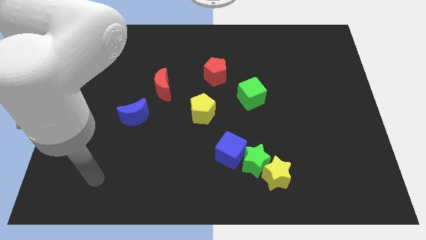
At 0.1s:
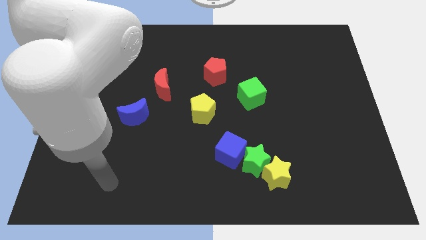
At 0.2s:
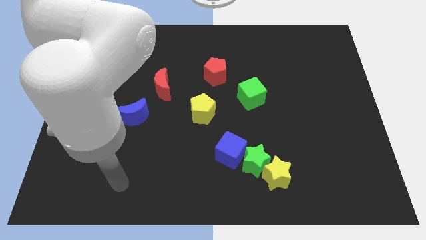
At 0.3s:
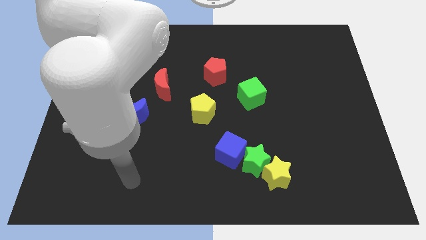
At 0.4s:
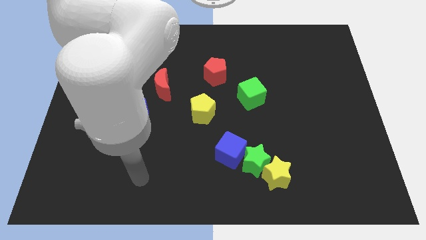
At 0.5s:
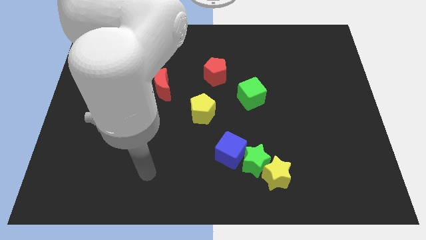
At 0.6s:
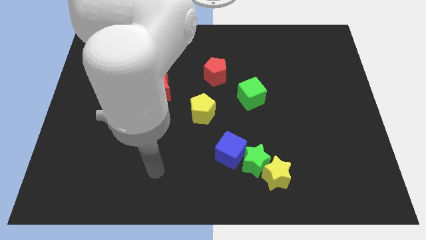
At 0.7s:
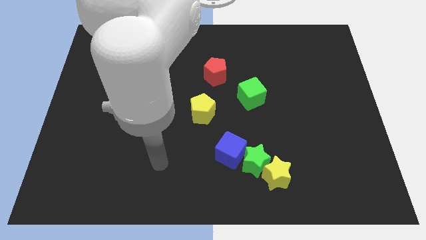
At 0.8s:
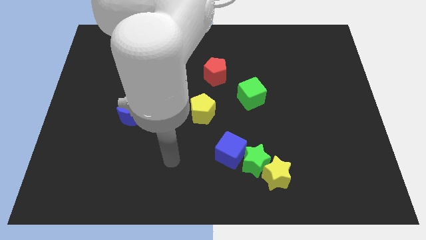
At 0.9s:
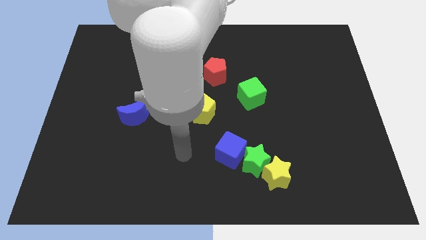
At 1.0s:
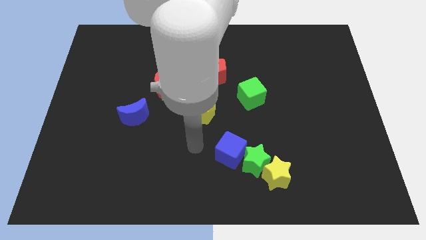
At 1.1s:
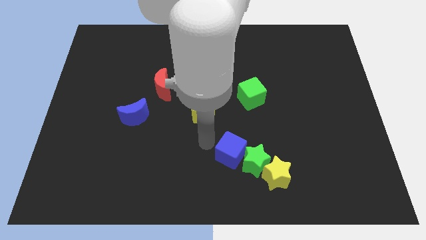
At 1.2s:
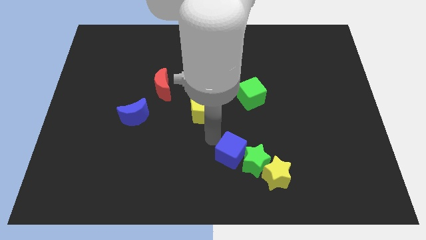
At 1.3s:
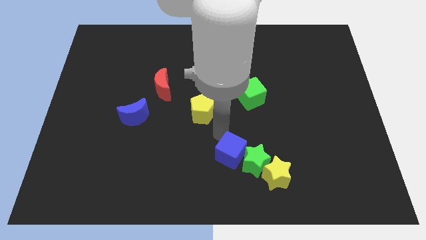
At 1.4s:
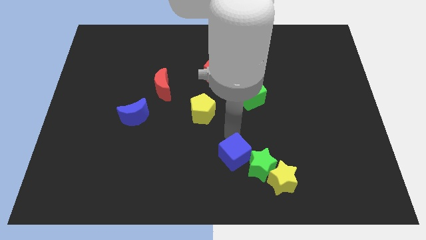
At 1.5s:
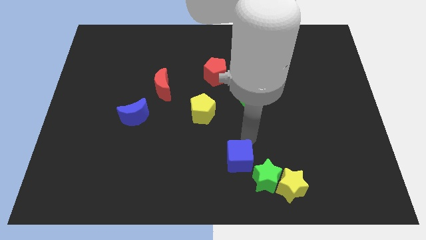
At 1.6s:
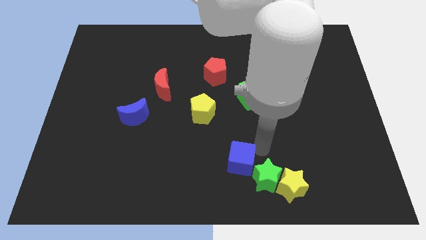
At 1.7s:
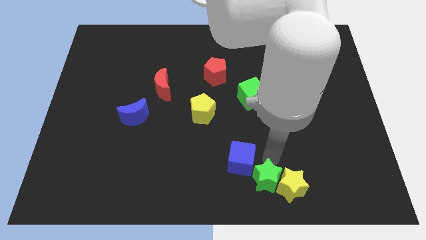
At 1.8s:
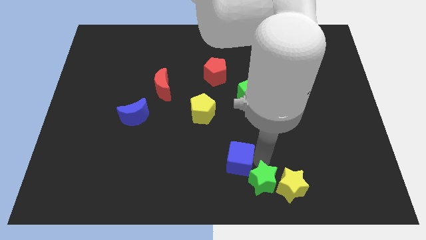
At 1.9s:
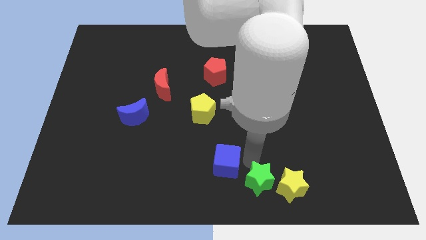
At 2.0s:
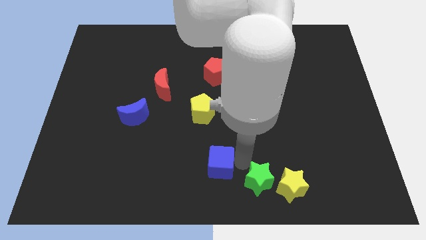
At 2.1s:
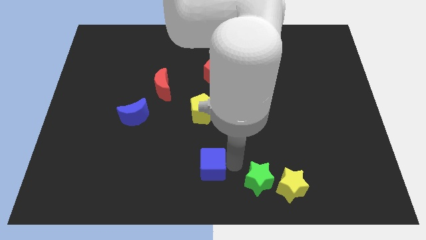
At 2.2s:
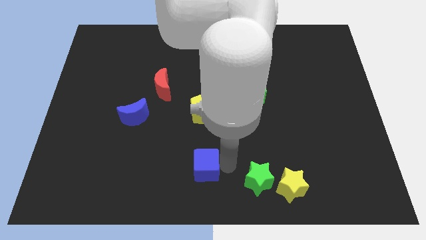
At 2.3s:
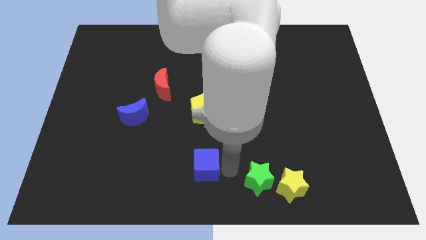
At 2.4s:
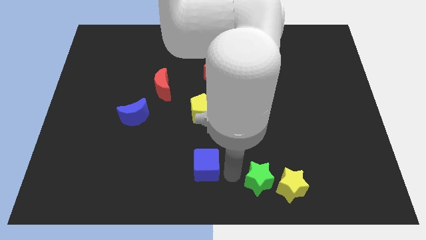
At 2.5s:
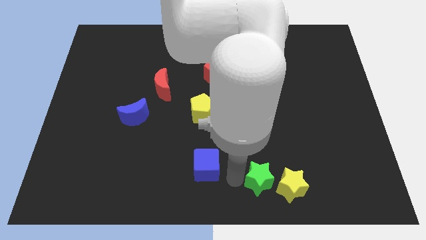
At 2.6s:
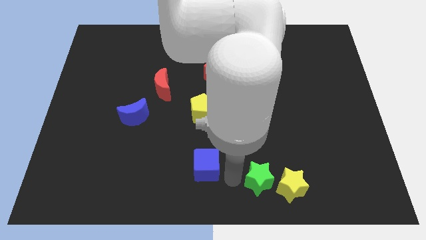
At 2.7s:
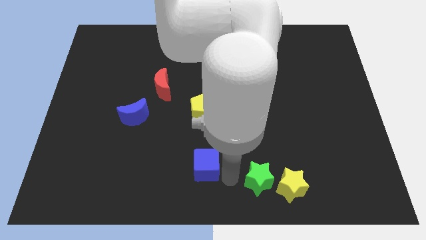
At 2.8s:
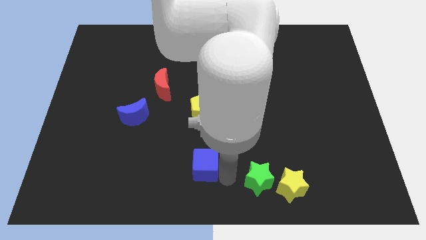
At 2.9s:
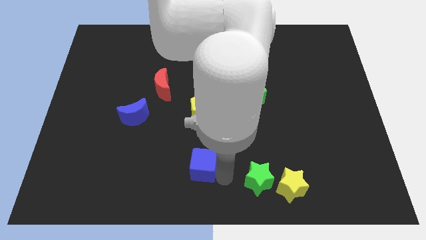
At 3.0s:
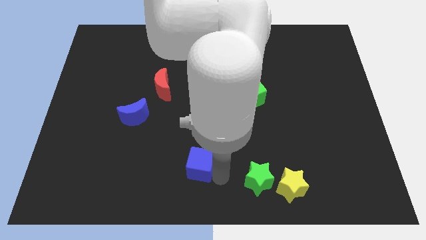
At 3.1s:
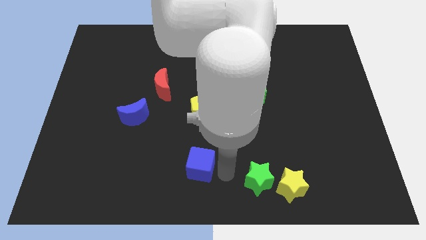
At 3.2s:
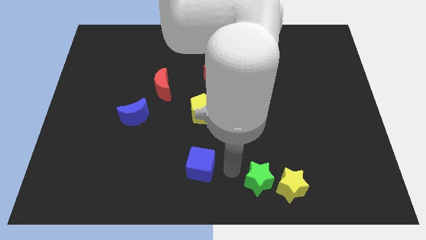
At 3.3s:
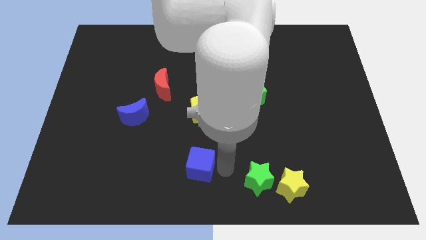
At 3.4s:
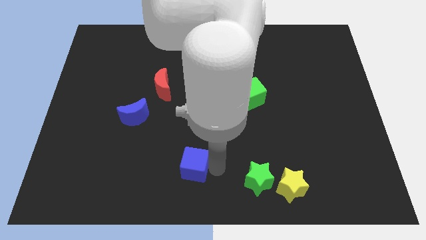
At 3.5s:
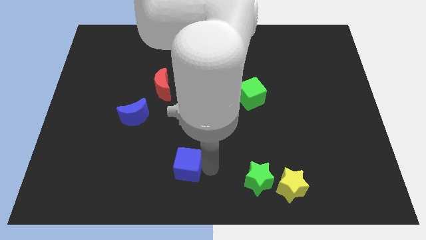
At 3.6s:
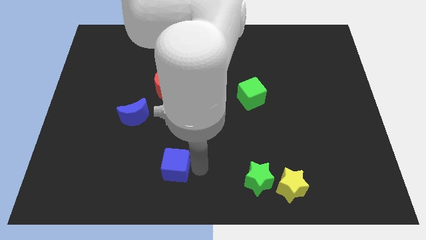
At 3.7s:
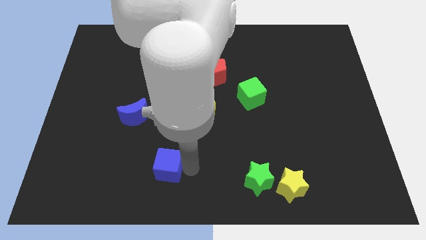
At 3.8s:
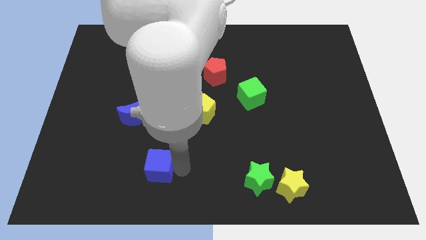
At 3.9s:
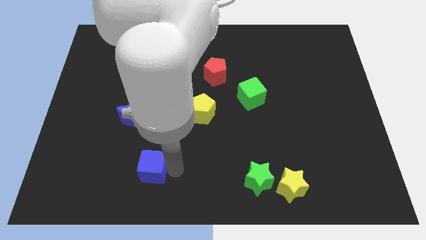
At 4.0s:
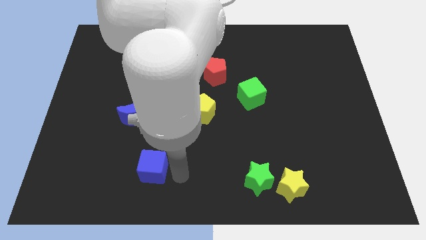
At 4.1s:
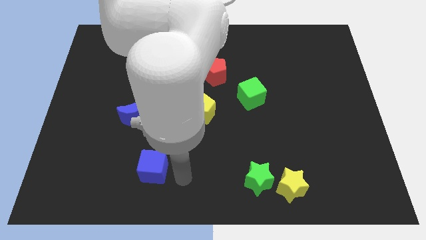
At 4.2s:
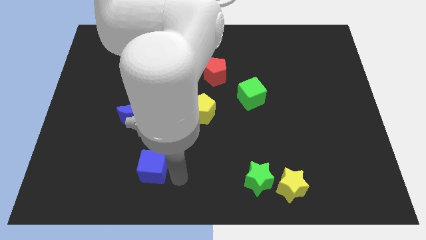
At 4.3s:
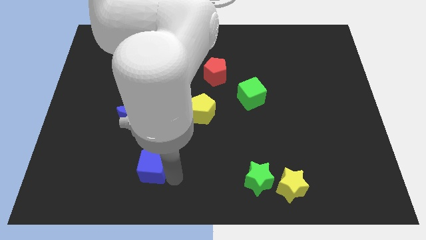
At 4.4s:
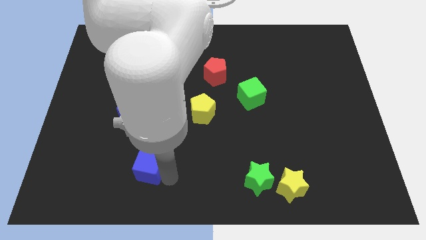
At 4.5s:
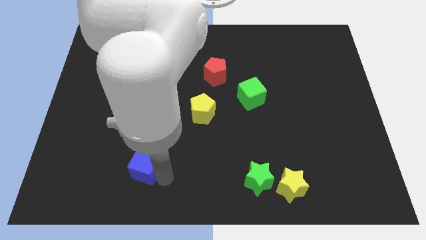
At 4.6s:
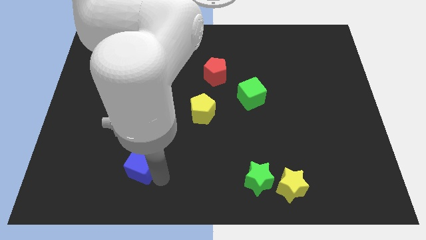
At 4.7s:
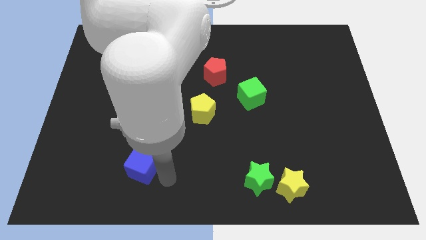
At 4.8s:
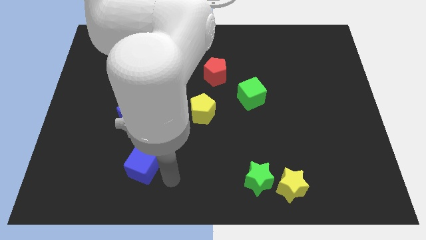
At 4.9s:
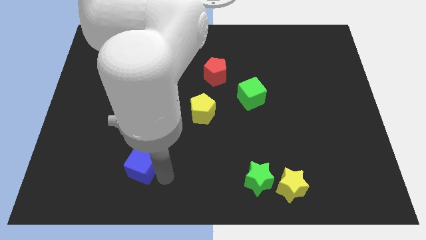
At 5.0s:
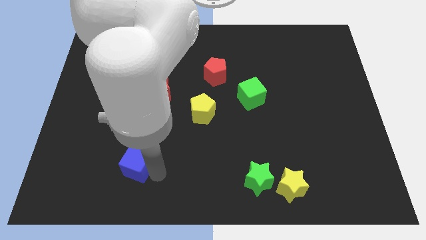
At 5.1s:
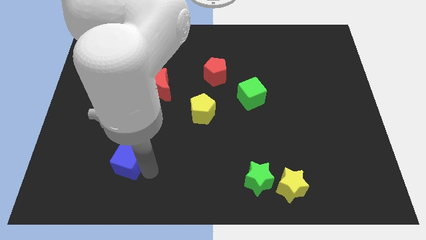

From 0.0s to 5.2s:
slide the blue cube to the left

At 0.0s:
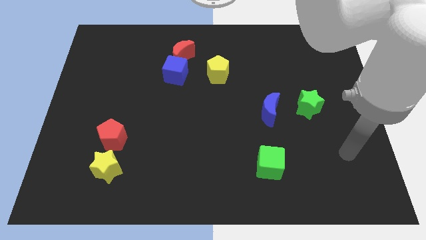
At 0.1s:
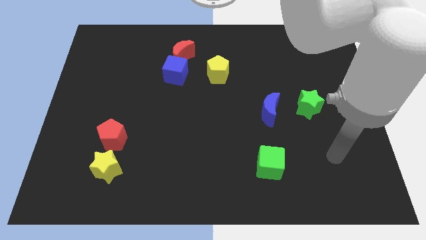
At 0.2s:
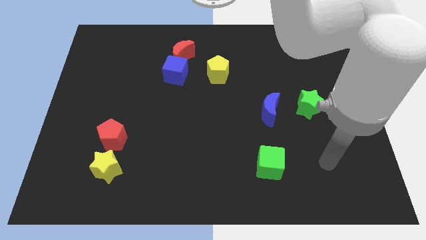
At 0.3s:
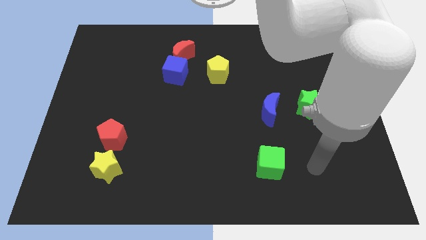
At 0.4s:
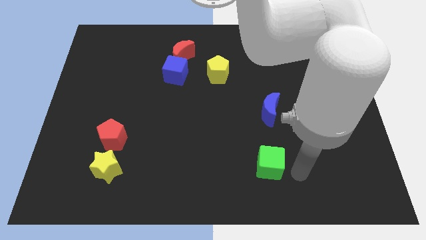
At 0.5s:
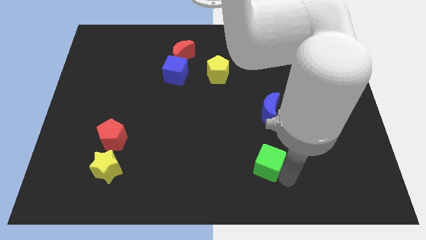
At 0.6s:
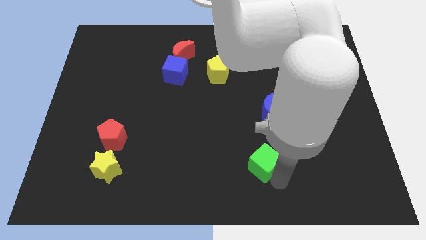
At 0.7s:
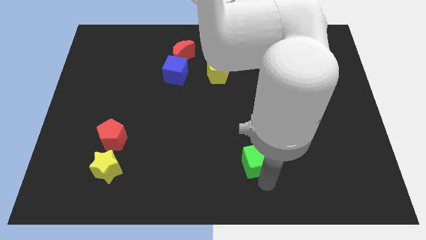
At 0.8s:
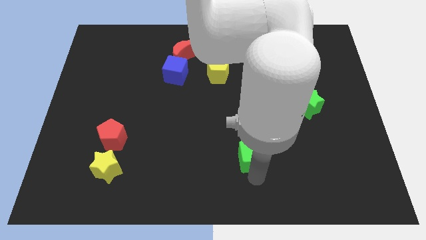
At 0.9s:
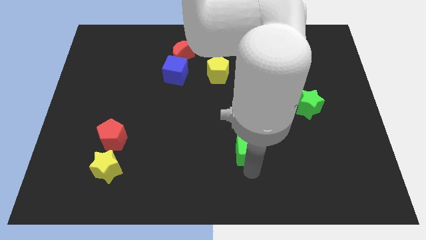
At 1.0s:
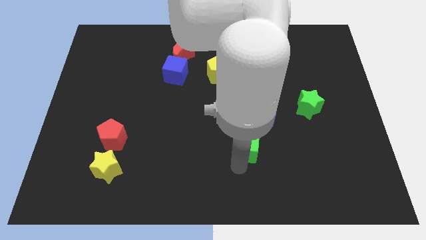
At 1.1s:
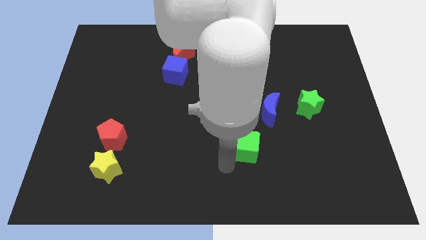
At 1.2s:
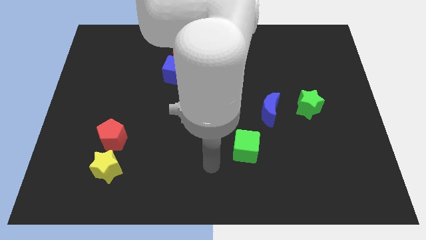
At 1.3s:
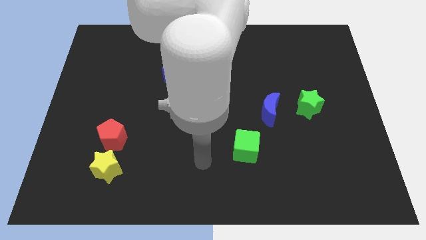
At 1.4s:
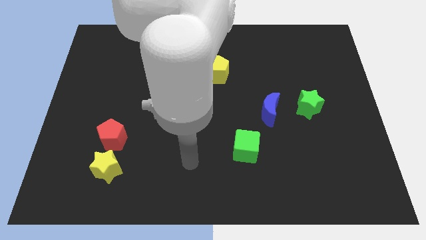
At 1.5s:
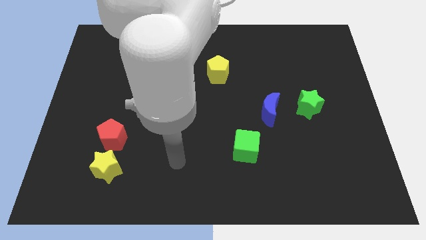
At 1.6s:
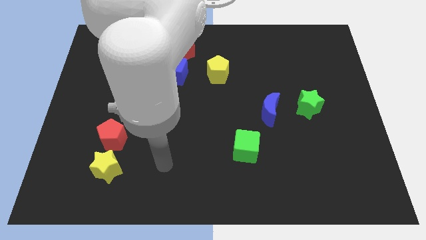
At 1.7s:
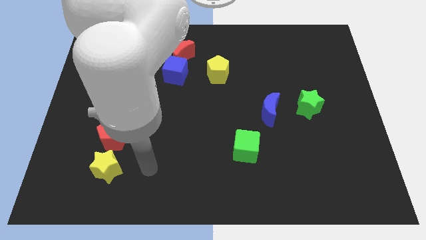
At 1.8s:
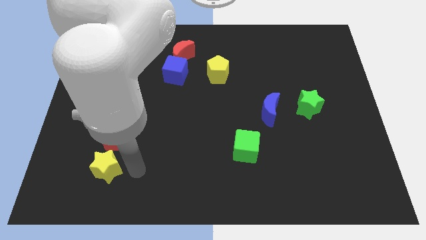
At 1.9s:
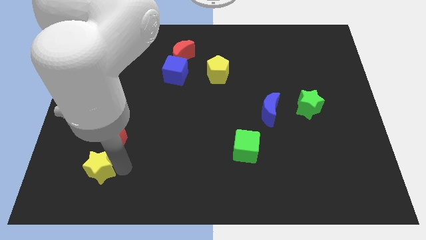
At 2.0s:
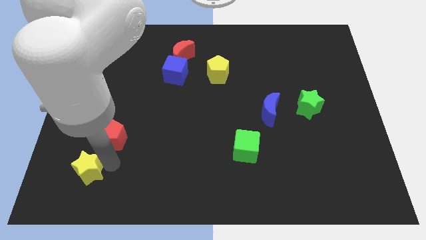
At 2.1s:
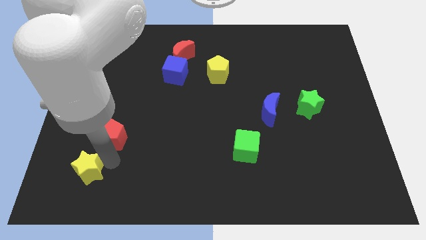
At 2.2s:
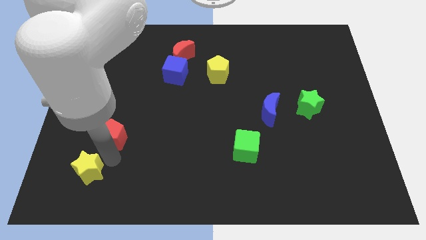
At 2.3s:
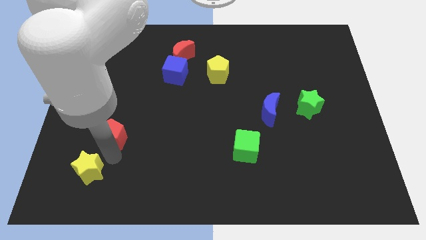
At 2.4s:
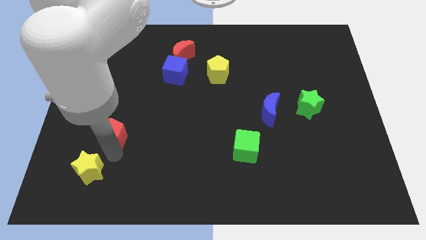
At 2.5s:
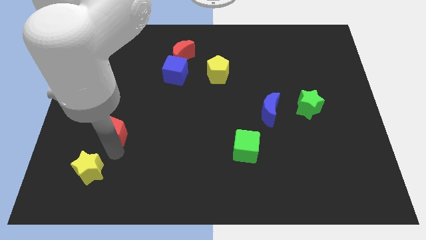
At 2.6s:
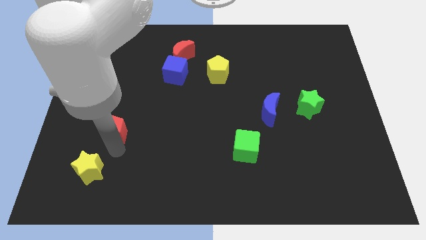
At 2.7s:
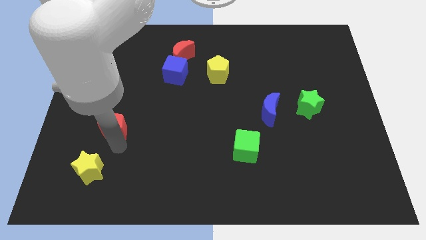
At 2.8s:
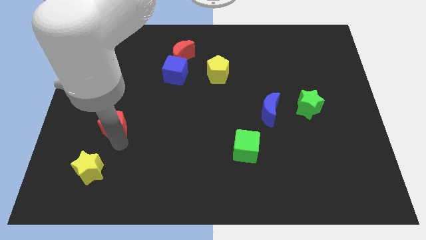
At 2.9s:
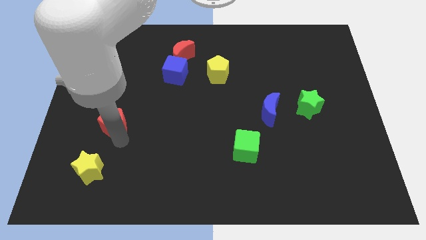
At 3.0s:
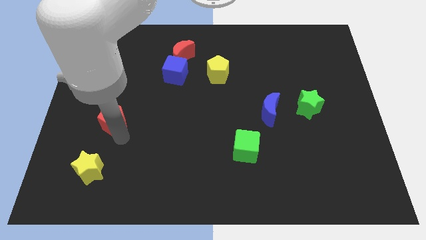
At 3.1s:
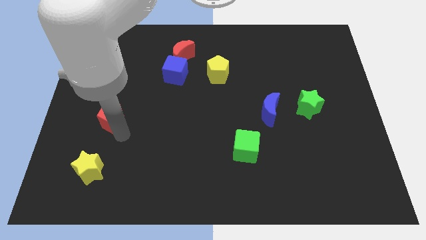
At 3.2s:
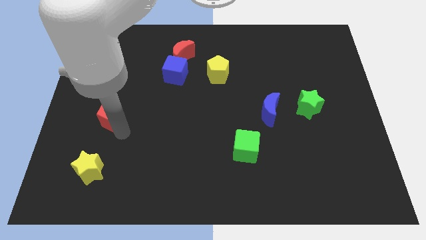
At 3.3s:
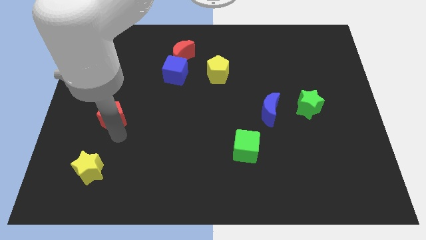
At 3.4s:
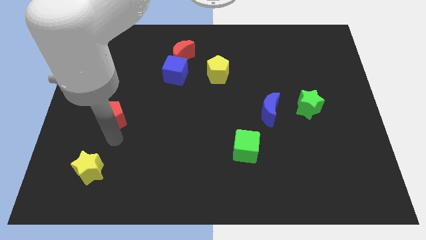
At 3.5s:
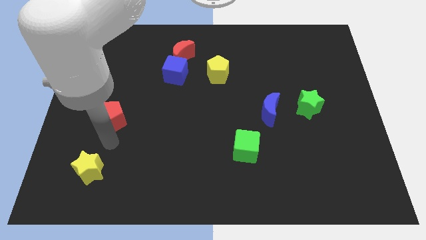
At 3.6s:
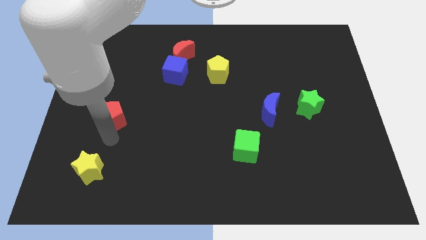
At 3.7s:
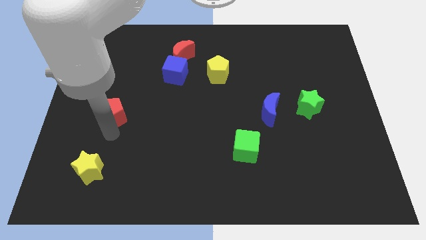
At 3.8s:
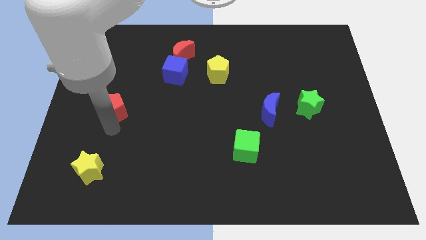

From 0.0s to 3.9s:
push the red pentagon slightly upwards
